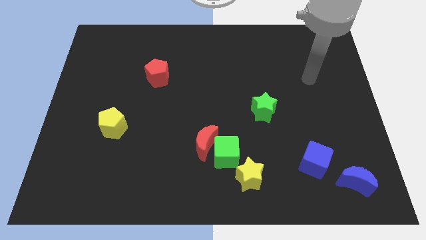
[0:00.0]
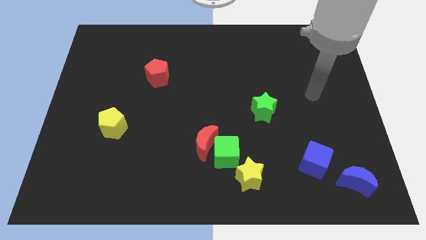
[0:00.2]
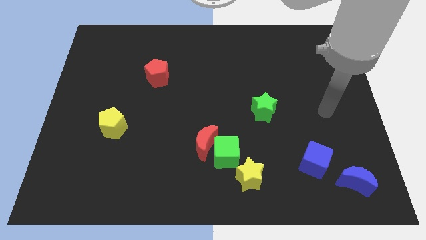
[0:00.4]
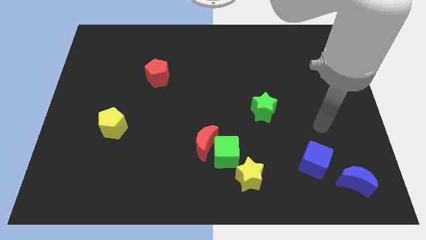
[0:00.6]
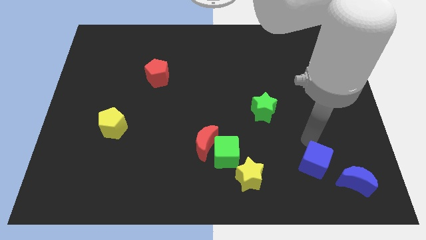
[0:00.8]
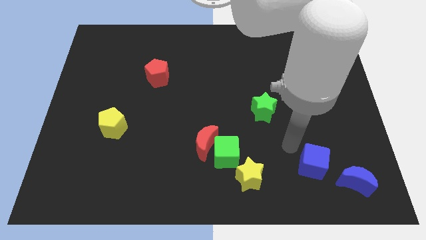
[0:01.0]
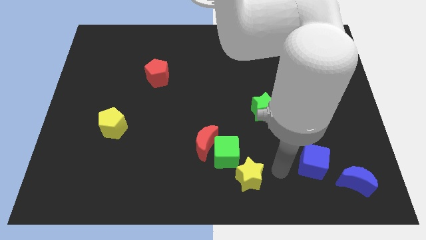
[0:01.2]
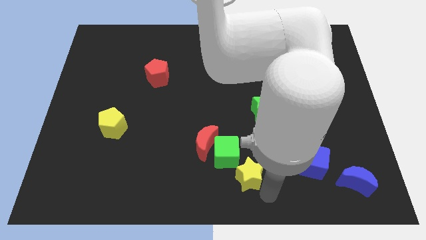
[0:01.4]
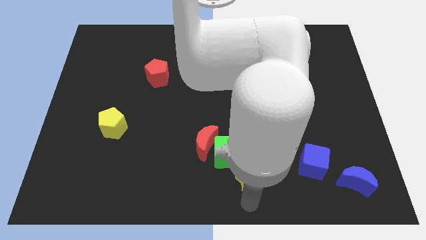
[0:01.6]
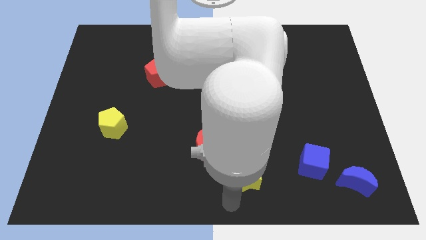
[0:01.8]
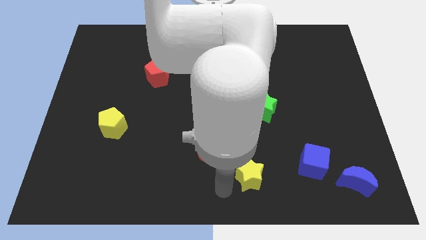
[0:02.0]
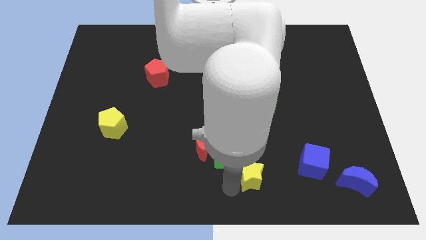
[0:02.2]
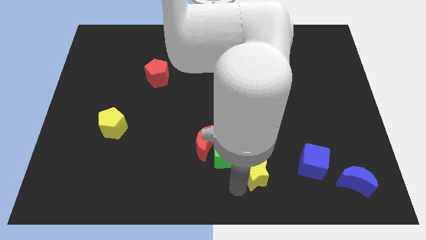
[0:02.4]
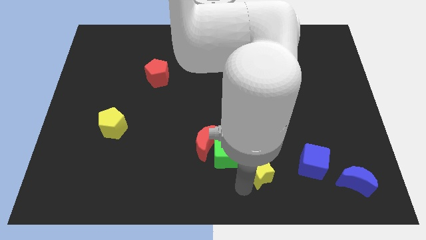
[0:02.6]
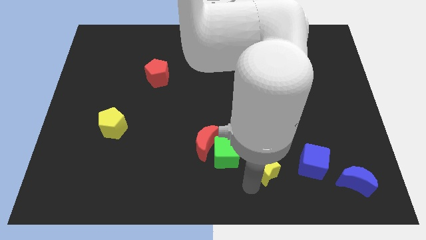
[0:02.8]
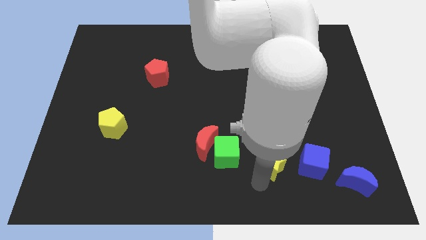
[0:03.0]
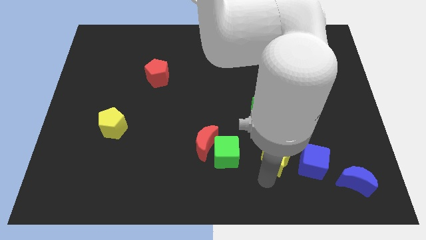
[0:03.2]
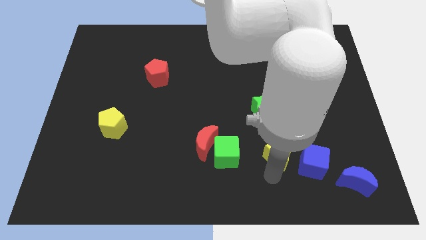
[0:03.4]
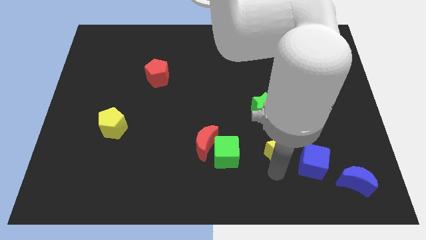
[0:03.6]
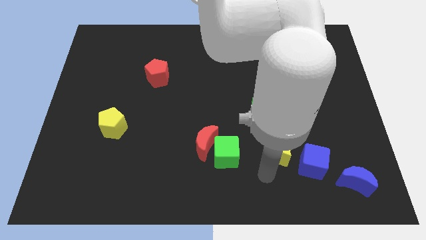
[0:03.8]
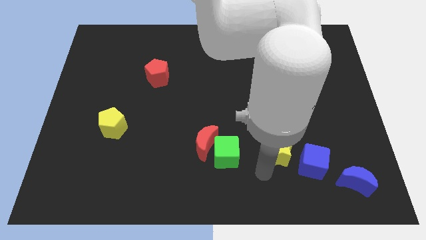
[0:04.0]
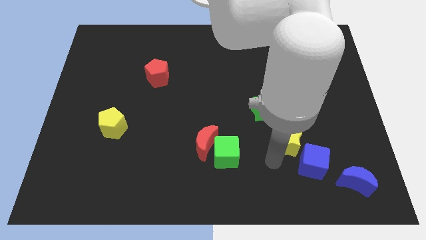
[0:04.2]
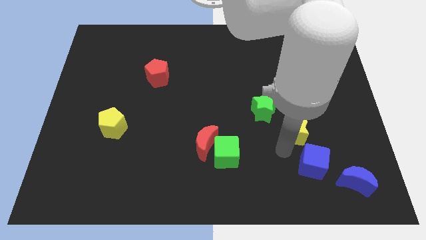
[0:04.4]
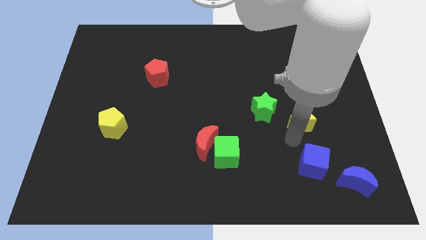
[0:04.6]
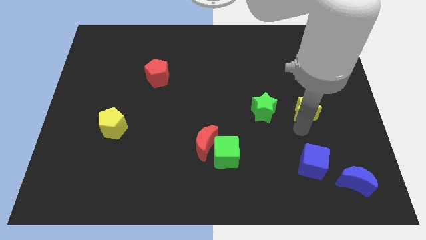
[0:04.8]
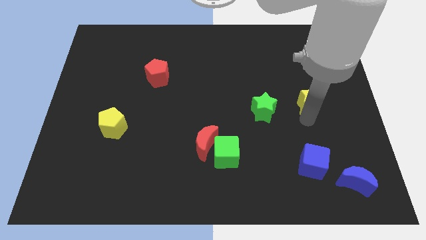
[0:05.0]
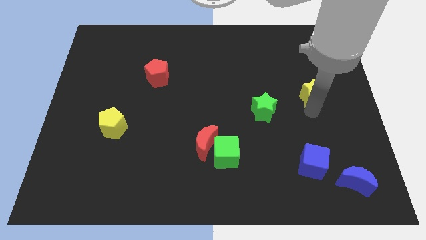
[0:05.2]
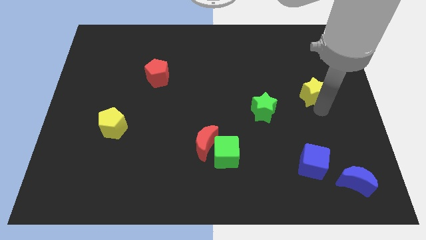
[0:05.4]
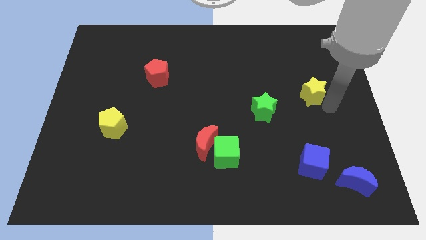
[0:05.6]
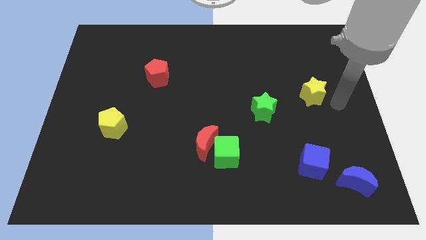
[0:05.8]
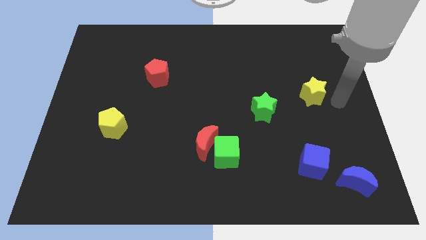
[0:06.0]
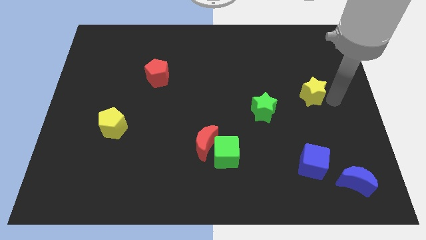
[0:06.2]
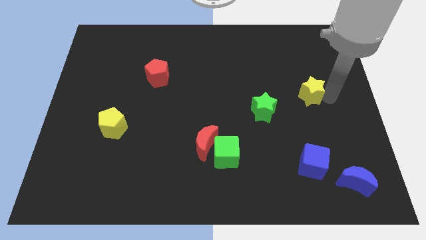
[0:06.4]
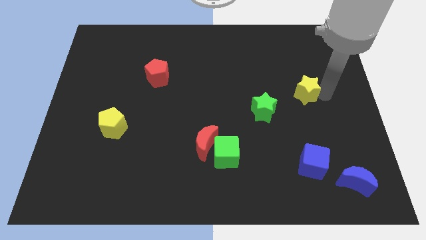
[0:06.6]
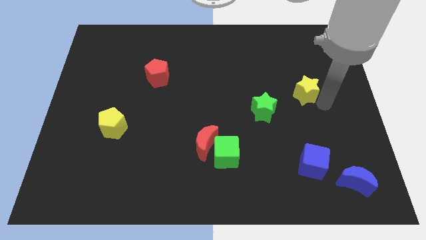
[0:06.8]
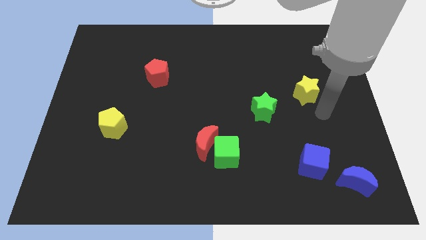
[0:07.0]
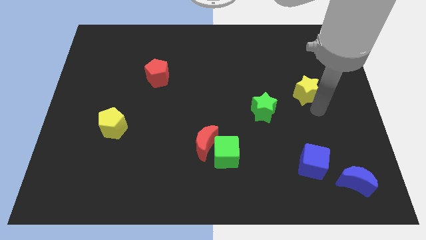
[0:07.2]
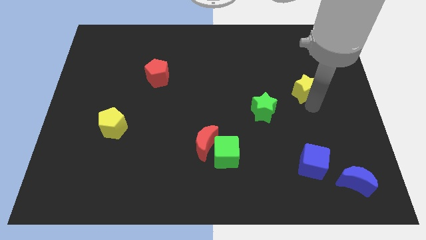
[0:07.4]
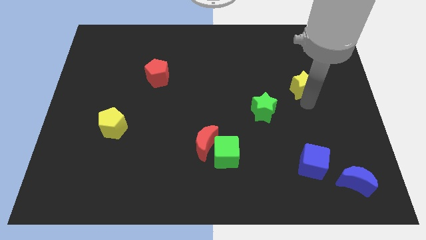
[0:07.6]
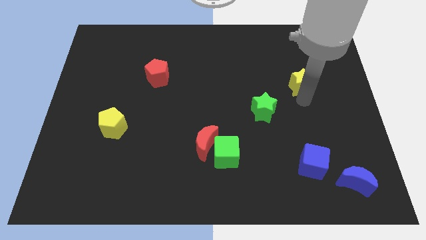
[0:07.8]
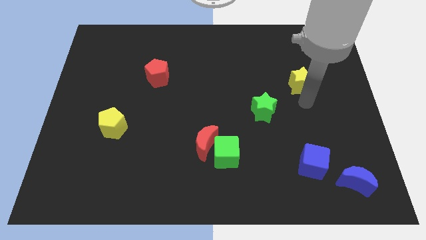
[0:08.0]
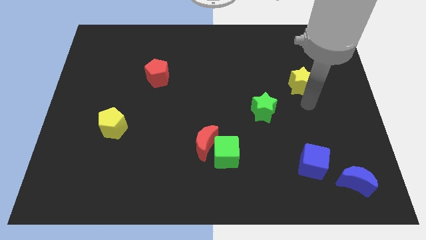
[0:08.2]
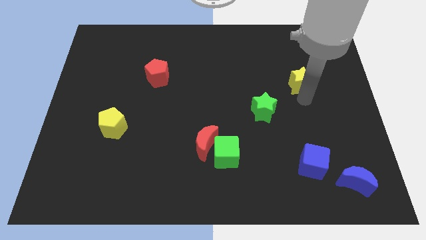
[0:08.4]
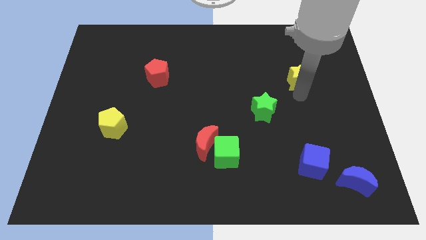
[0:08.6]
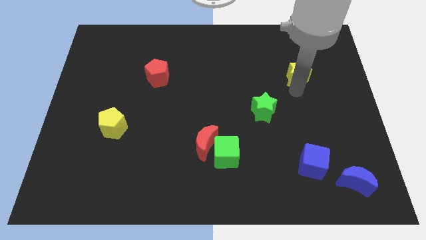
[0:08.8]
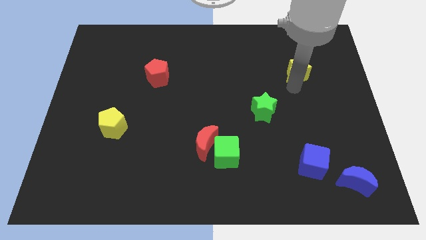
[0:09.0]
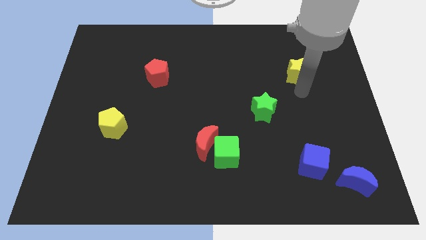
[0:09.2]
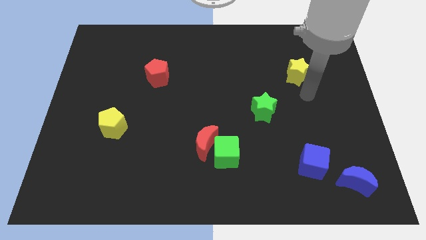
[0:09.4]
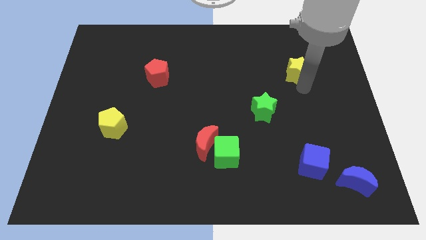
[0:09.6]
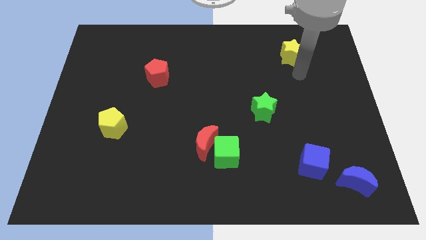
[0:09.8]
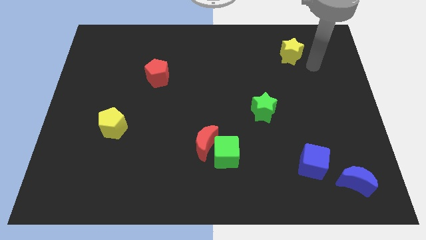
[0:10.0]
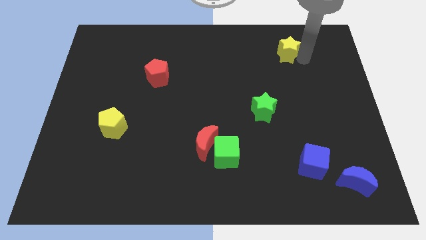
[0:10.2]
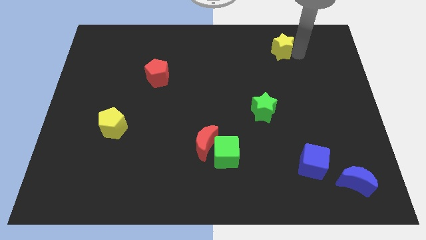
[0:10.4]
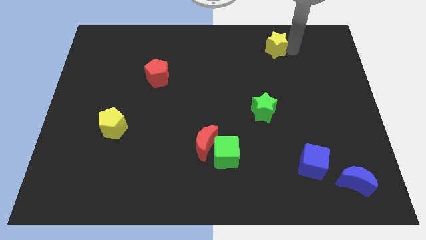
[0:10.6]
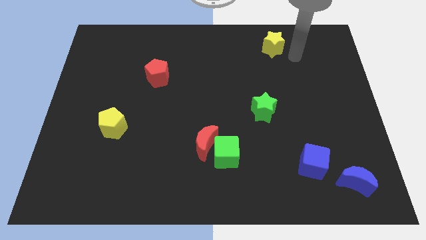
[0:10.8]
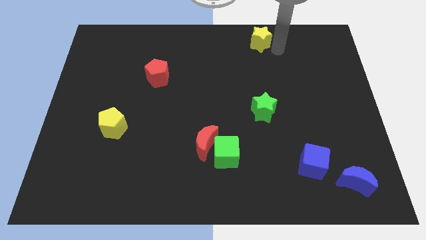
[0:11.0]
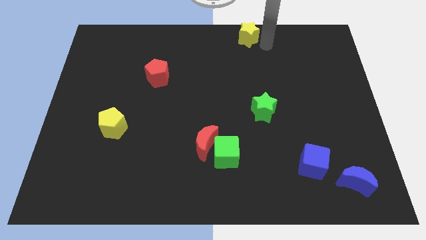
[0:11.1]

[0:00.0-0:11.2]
push the yellow star to the top side

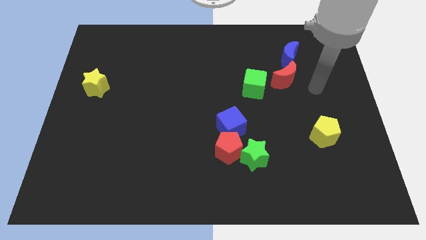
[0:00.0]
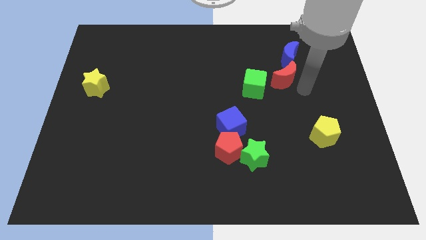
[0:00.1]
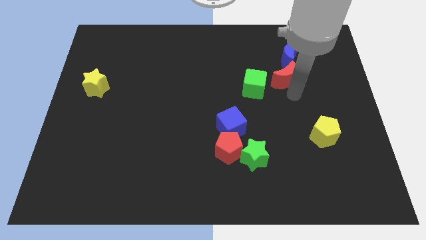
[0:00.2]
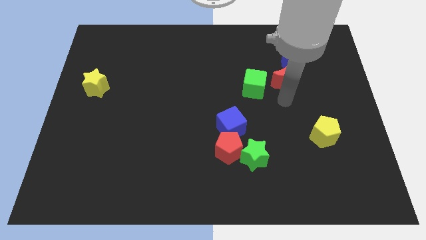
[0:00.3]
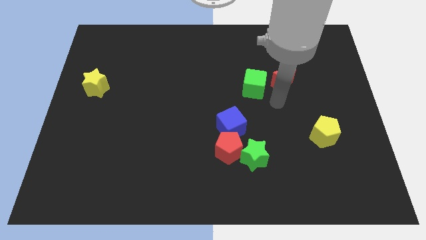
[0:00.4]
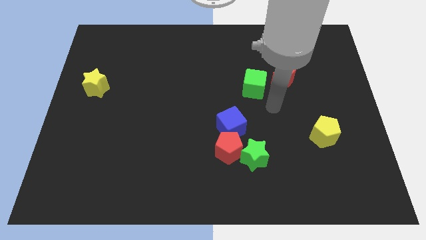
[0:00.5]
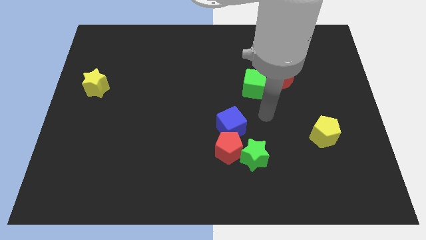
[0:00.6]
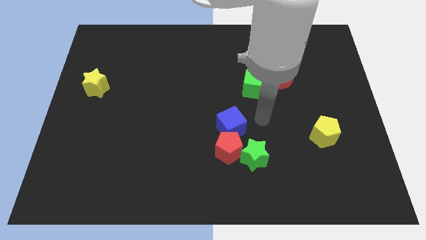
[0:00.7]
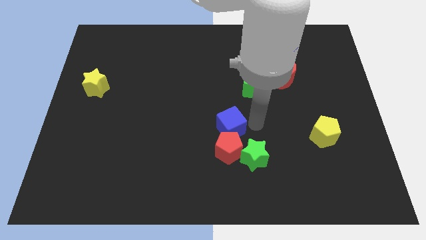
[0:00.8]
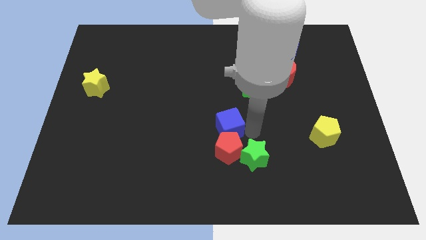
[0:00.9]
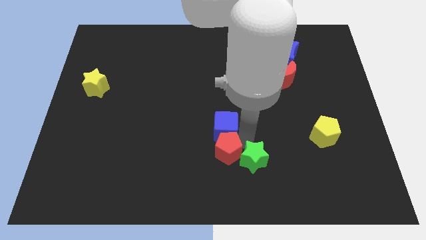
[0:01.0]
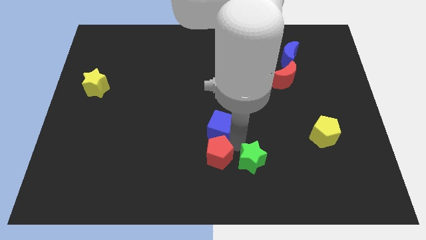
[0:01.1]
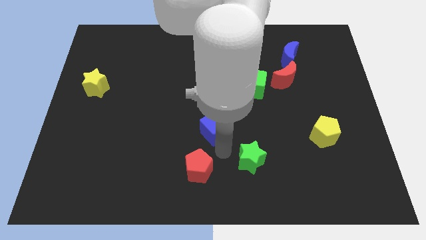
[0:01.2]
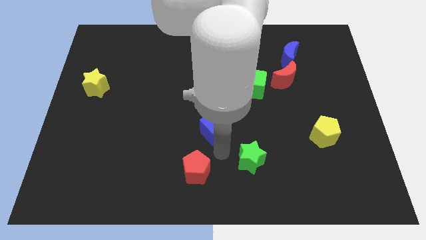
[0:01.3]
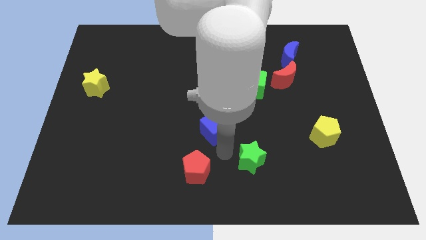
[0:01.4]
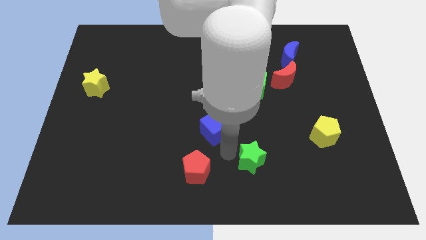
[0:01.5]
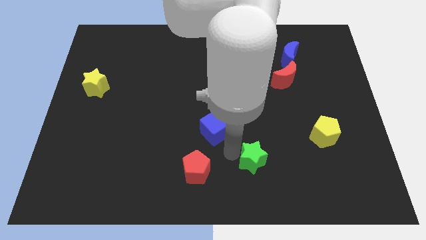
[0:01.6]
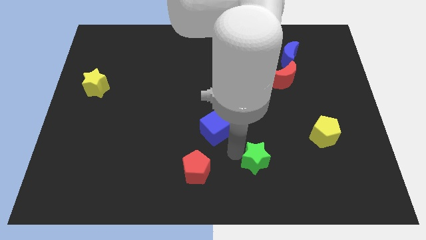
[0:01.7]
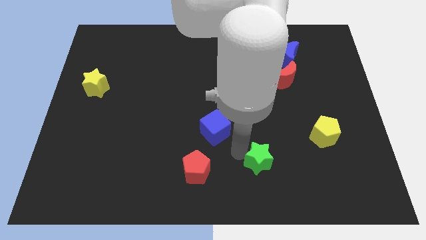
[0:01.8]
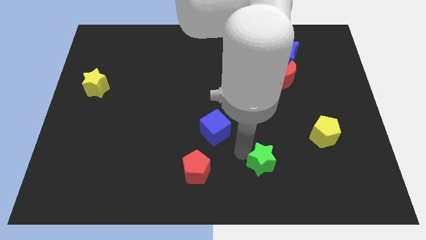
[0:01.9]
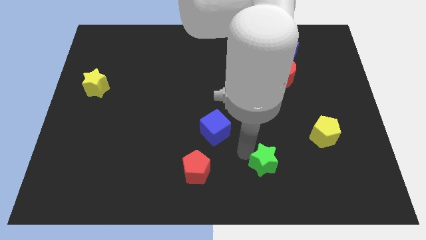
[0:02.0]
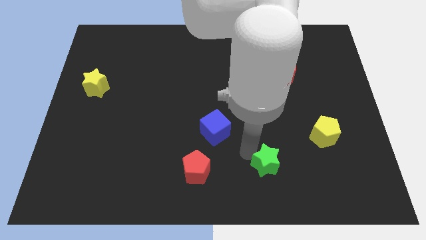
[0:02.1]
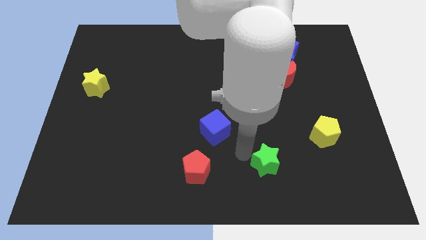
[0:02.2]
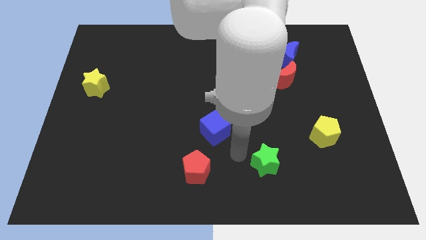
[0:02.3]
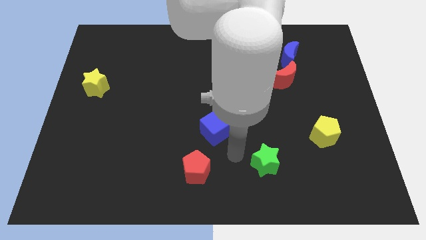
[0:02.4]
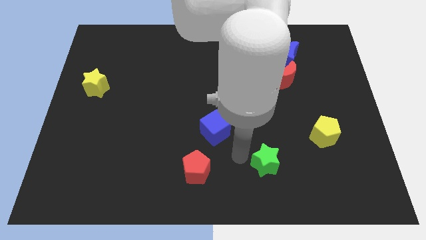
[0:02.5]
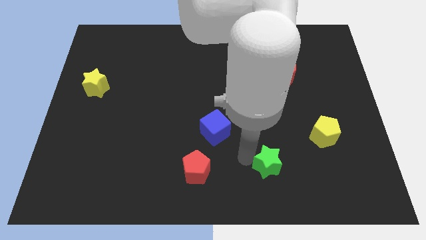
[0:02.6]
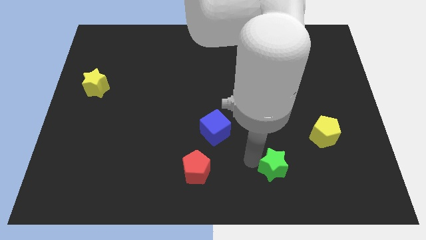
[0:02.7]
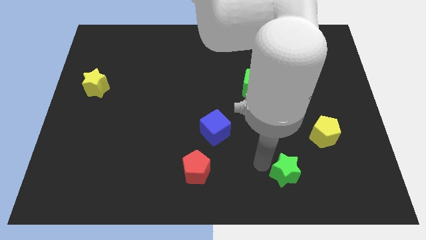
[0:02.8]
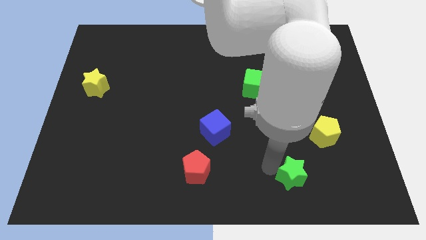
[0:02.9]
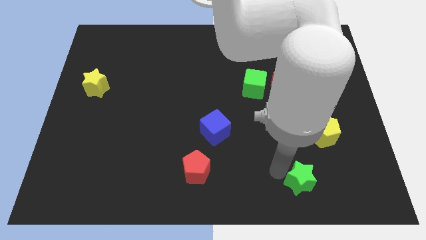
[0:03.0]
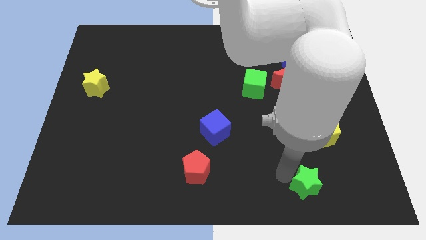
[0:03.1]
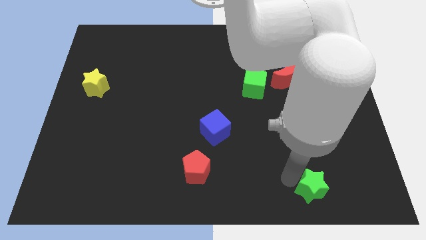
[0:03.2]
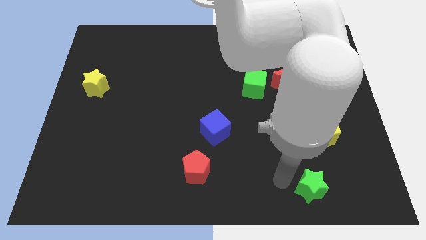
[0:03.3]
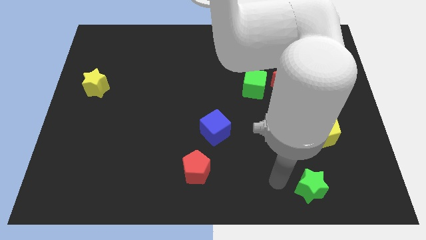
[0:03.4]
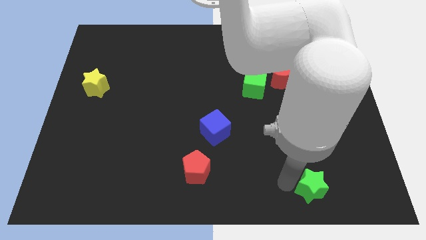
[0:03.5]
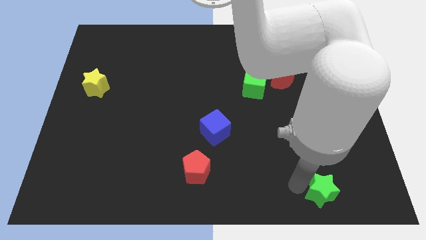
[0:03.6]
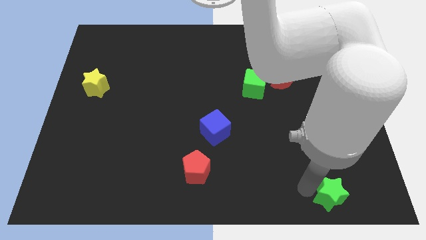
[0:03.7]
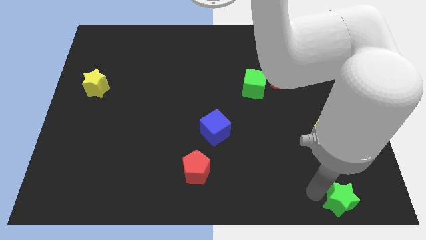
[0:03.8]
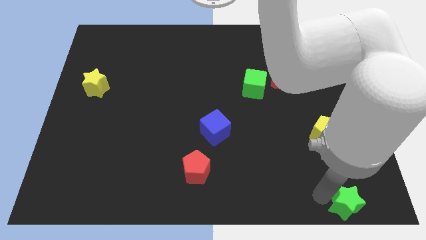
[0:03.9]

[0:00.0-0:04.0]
slide the green star to the bottom right of the board
